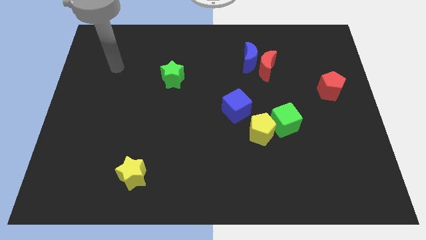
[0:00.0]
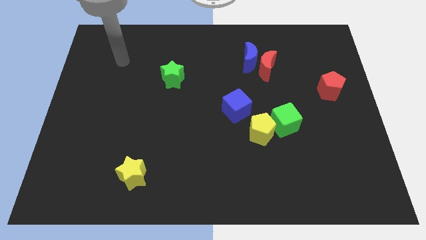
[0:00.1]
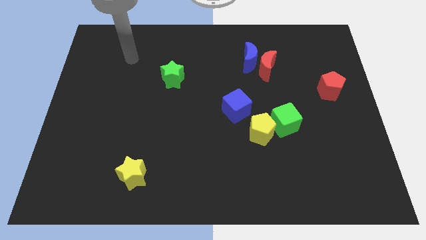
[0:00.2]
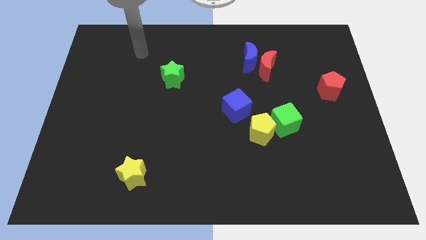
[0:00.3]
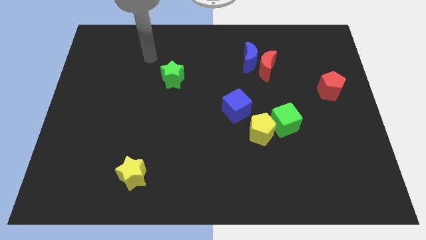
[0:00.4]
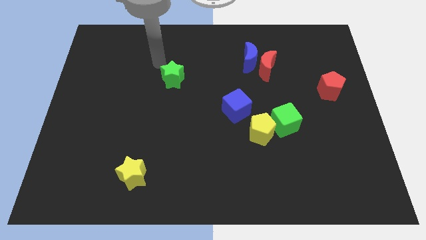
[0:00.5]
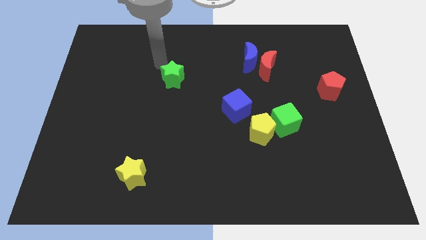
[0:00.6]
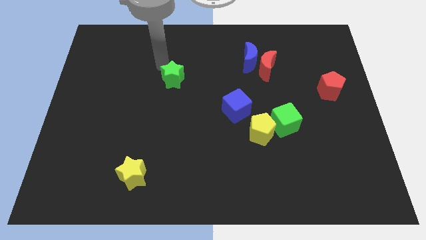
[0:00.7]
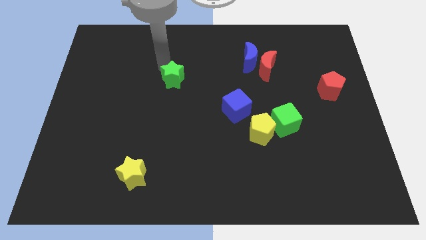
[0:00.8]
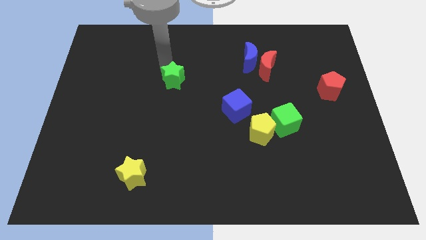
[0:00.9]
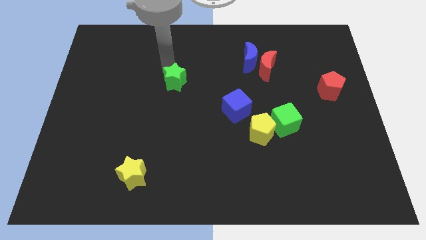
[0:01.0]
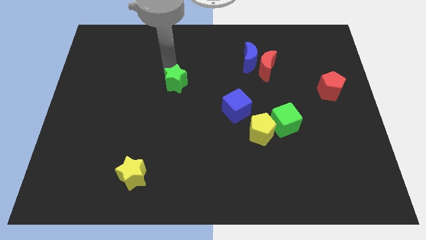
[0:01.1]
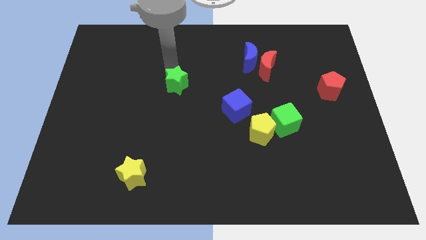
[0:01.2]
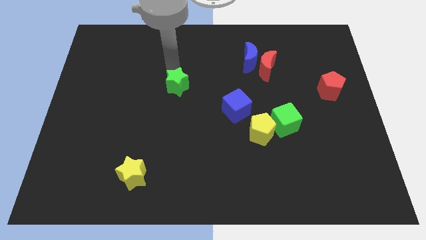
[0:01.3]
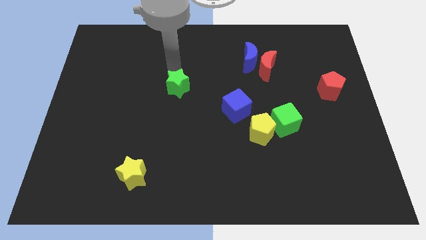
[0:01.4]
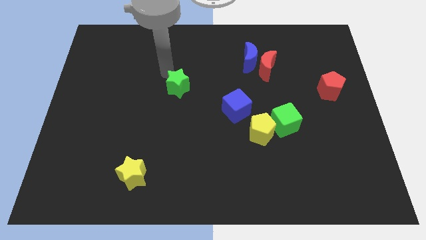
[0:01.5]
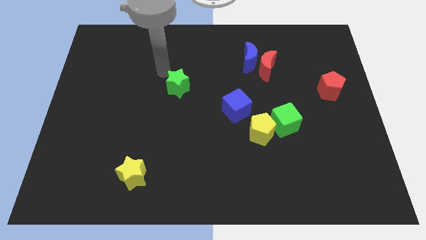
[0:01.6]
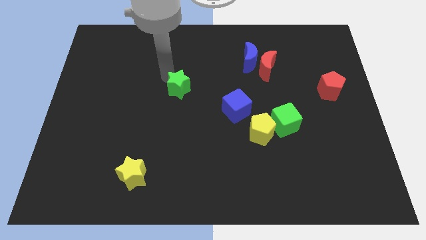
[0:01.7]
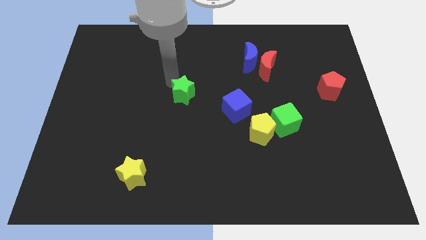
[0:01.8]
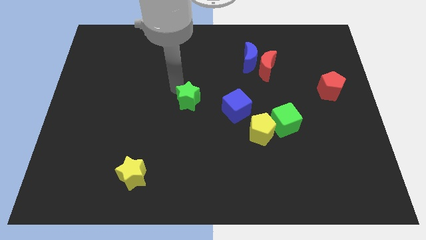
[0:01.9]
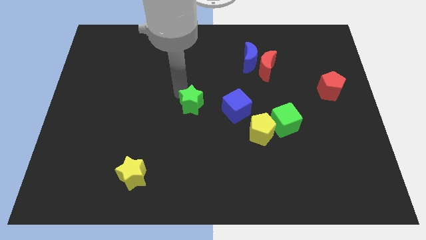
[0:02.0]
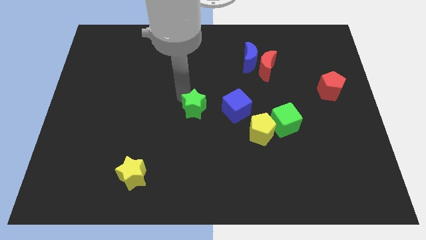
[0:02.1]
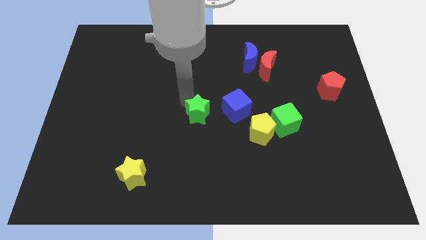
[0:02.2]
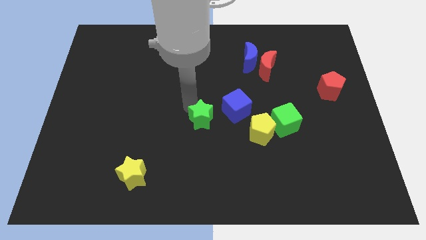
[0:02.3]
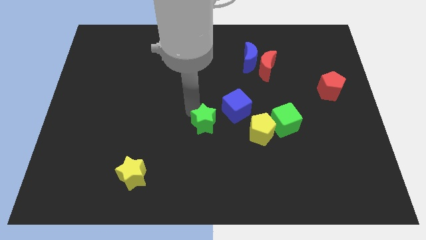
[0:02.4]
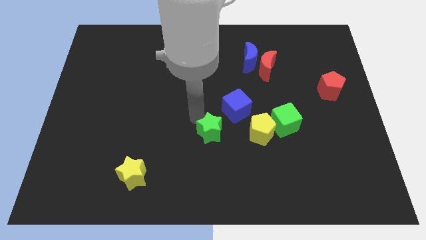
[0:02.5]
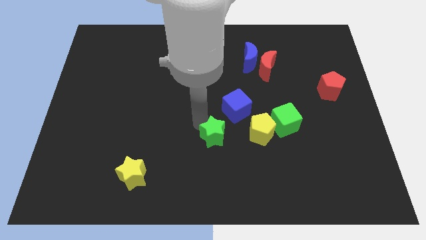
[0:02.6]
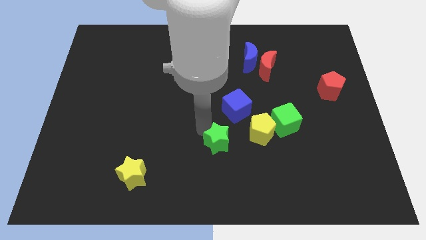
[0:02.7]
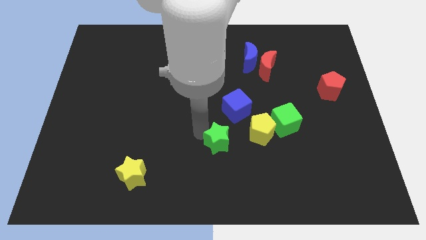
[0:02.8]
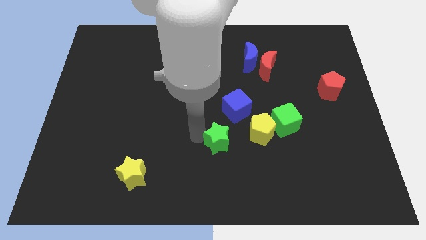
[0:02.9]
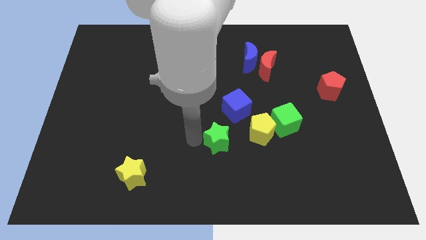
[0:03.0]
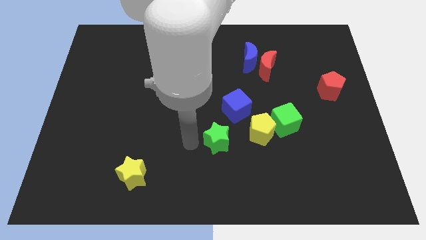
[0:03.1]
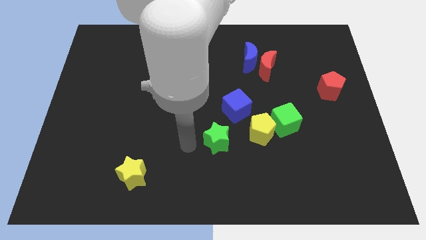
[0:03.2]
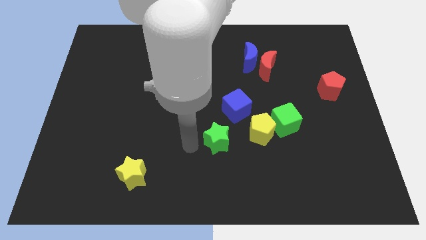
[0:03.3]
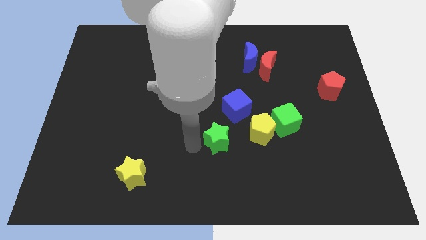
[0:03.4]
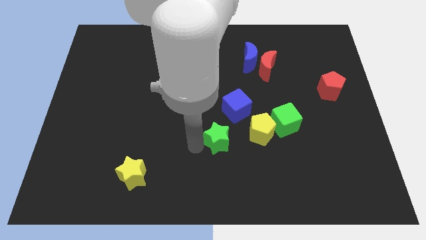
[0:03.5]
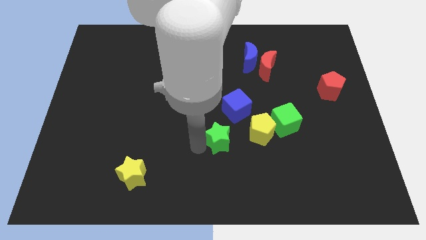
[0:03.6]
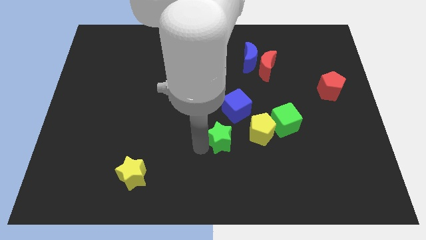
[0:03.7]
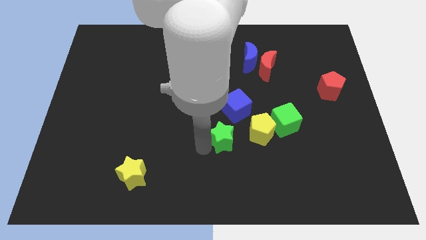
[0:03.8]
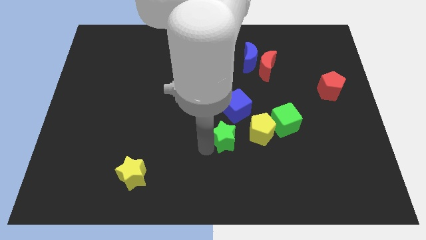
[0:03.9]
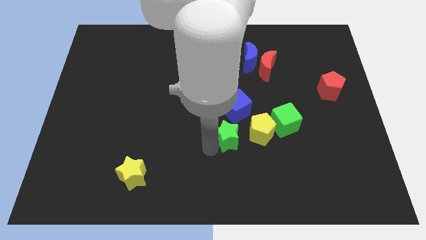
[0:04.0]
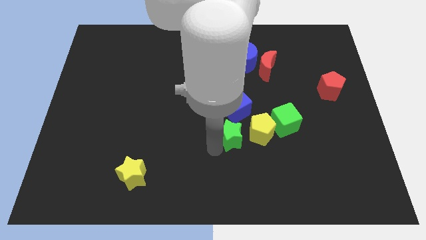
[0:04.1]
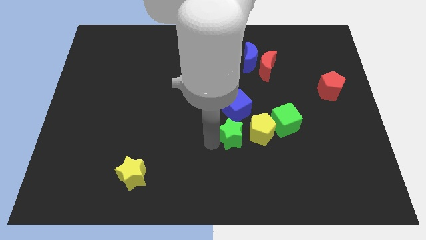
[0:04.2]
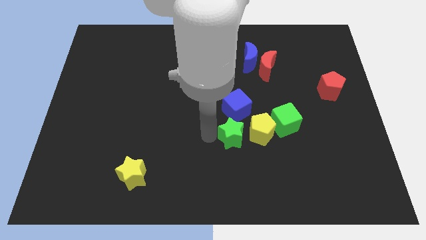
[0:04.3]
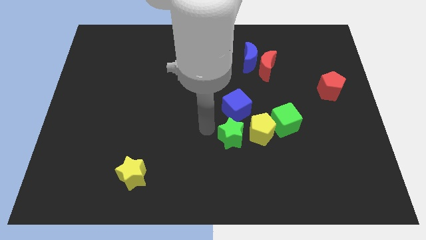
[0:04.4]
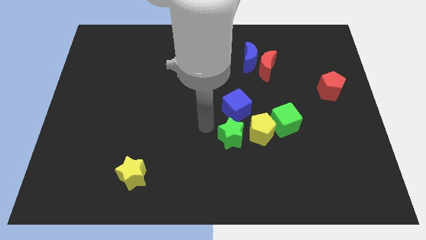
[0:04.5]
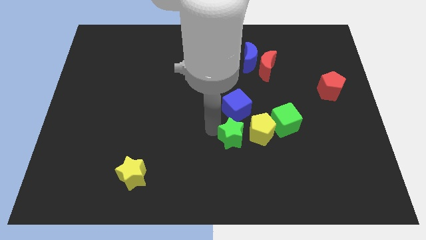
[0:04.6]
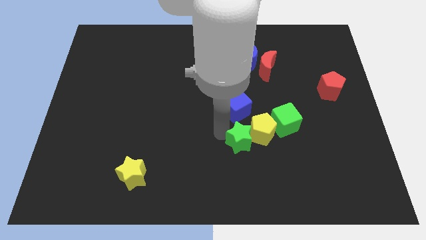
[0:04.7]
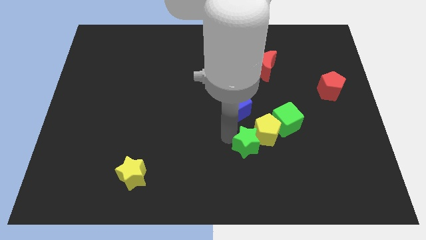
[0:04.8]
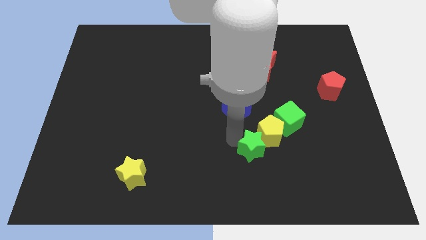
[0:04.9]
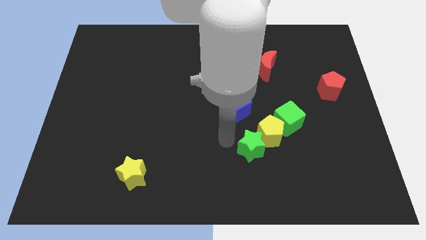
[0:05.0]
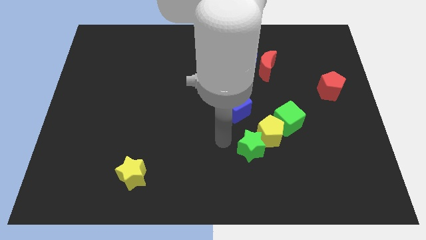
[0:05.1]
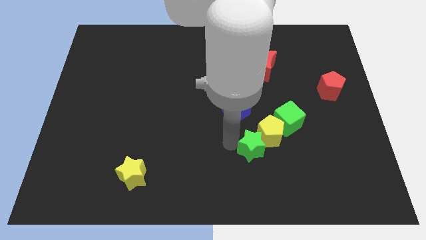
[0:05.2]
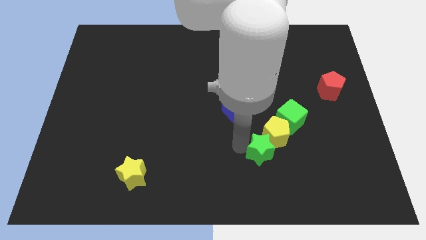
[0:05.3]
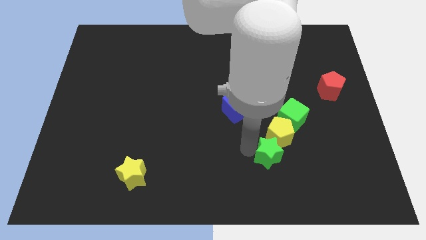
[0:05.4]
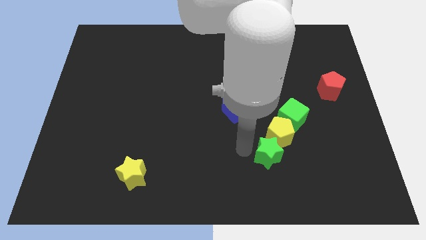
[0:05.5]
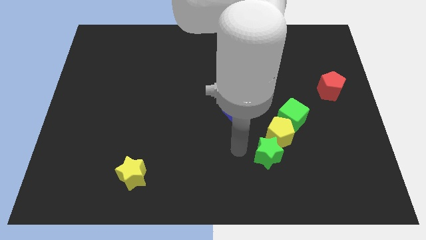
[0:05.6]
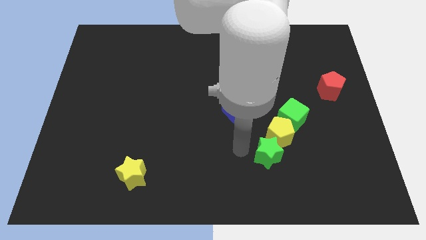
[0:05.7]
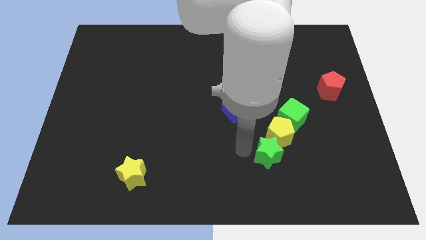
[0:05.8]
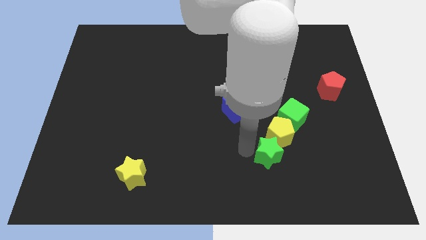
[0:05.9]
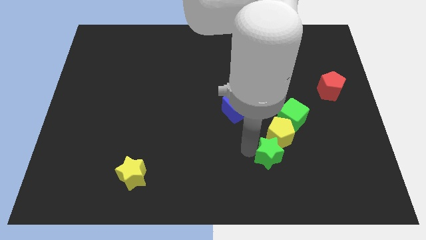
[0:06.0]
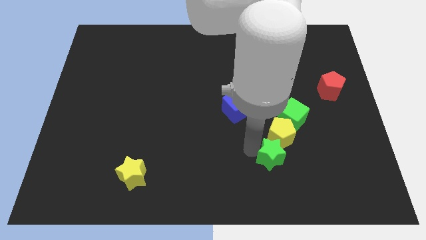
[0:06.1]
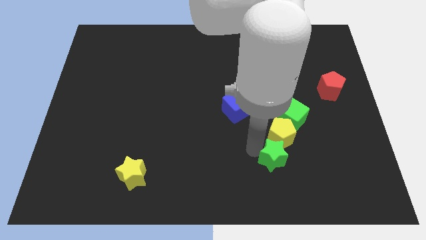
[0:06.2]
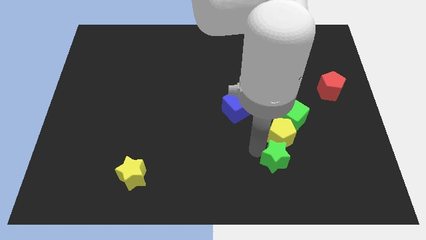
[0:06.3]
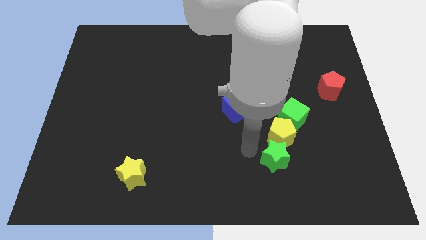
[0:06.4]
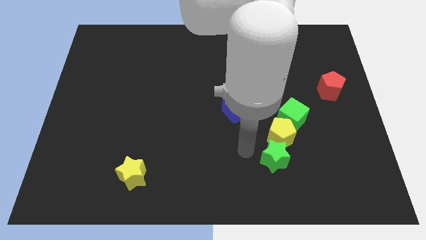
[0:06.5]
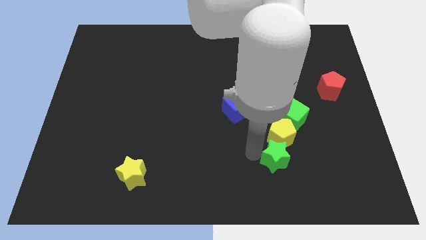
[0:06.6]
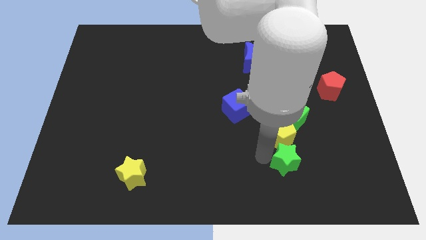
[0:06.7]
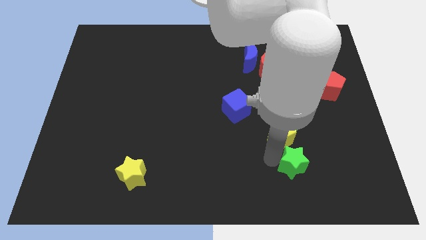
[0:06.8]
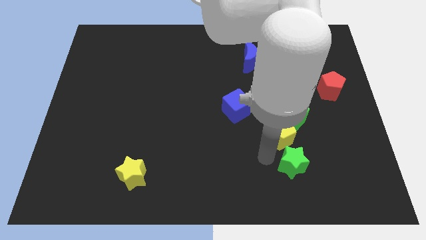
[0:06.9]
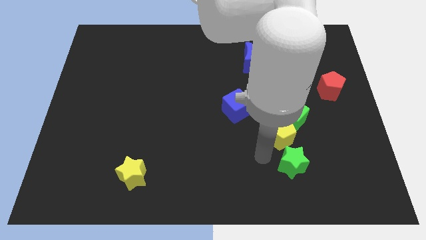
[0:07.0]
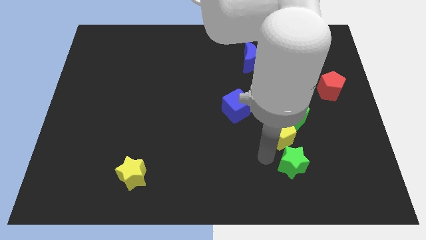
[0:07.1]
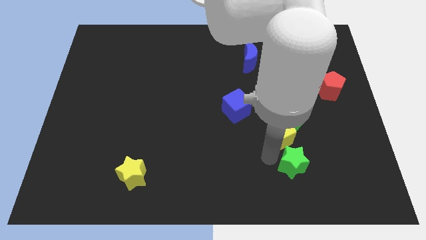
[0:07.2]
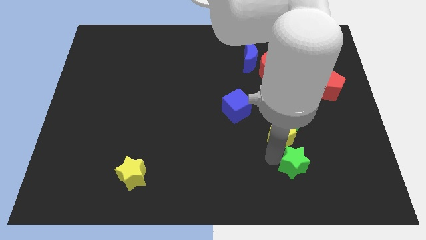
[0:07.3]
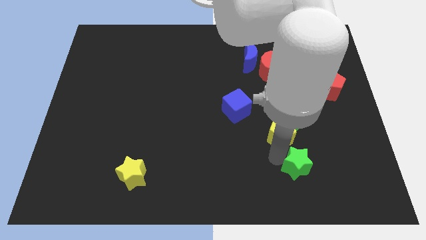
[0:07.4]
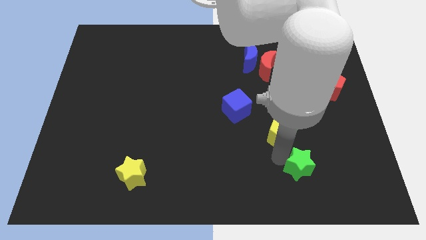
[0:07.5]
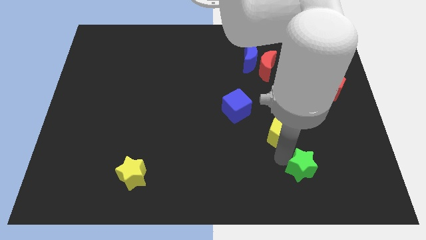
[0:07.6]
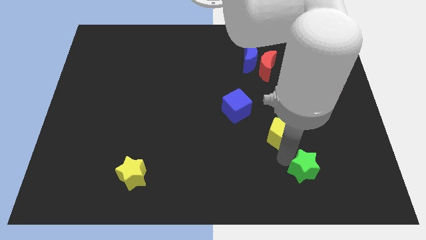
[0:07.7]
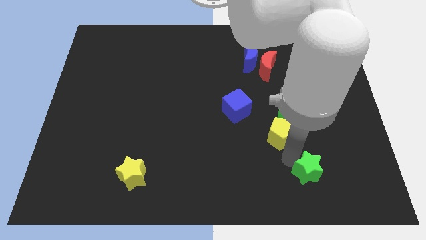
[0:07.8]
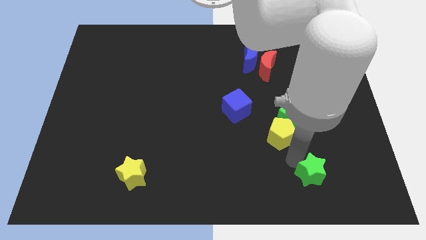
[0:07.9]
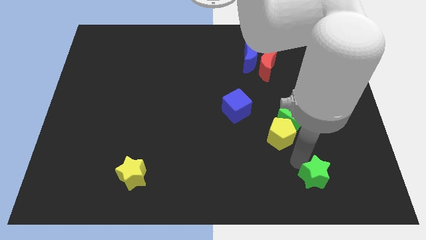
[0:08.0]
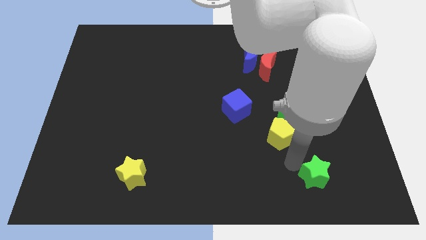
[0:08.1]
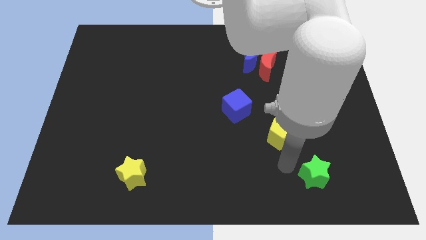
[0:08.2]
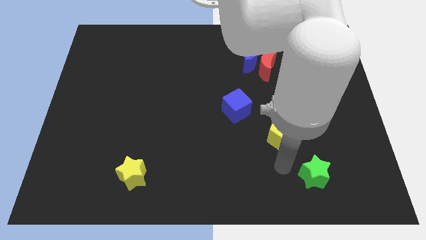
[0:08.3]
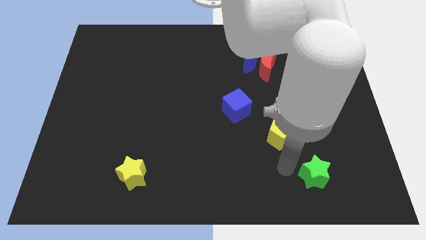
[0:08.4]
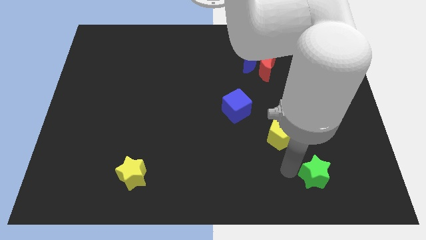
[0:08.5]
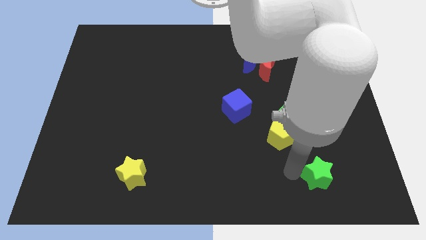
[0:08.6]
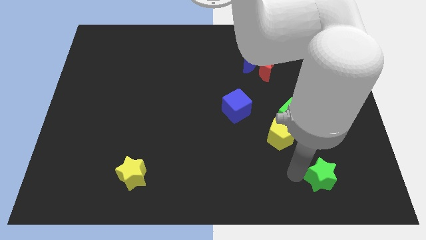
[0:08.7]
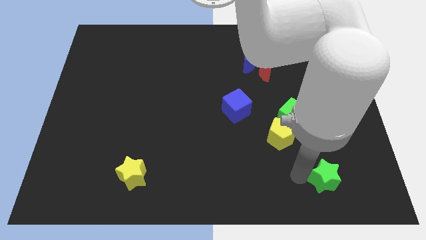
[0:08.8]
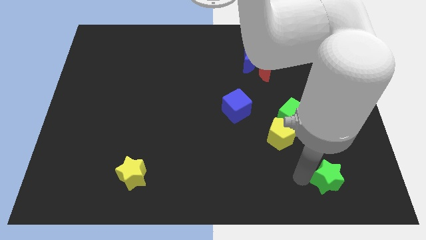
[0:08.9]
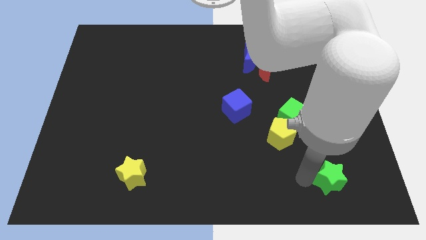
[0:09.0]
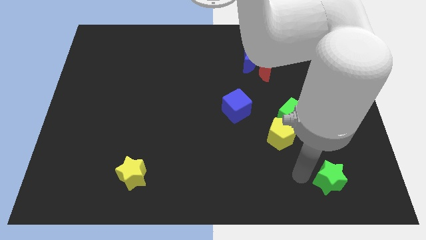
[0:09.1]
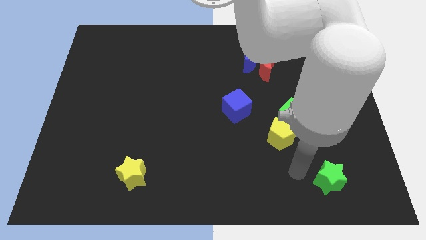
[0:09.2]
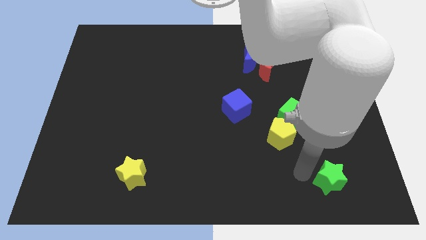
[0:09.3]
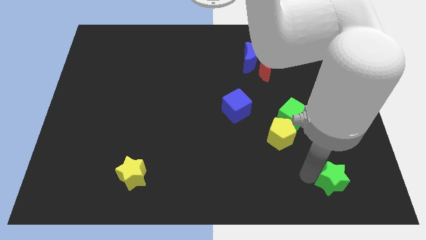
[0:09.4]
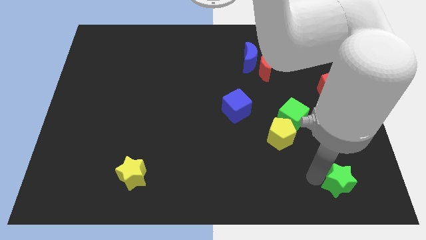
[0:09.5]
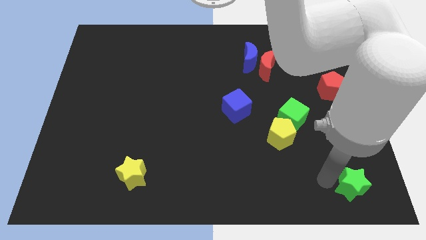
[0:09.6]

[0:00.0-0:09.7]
move the green star to the bottom right of the board
